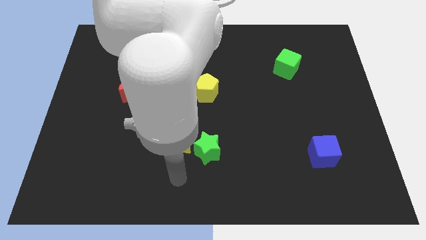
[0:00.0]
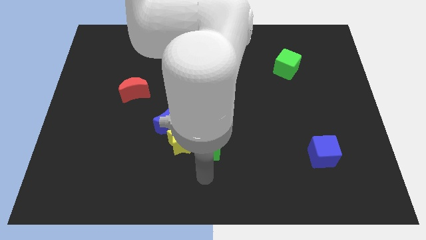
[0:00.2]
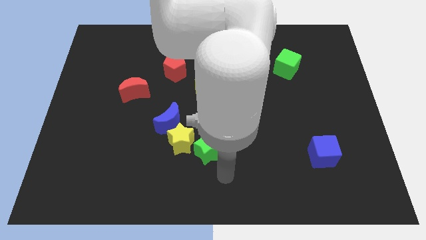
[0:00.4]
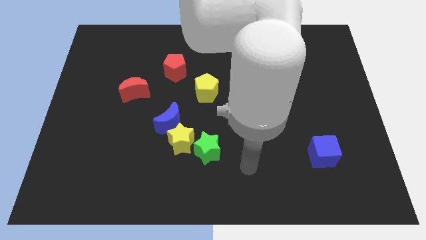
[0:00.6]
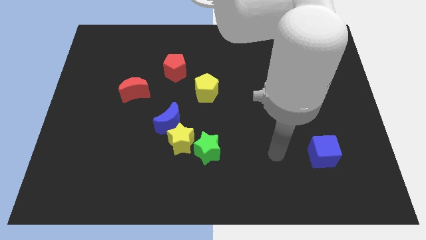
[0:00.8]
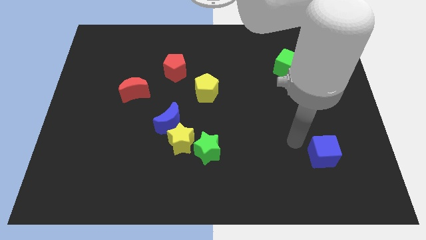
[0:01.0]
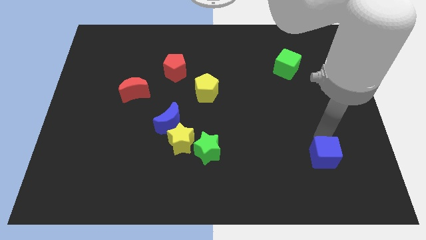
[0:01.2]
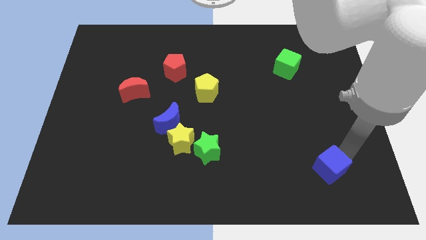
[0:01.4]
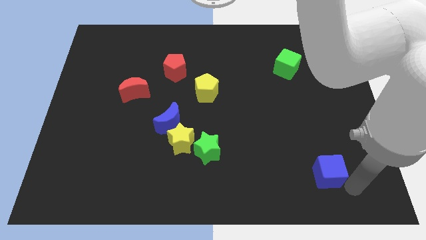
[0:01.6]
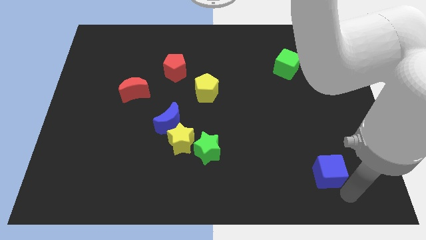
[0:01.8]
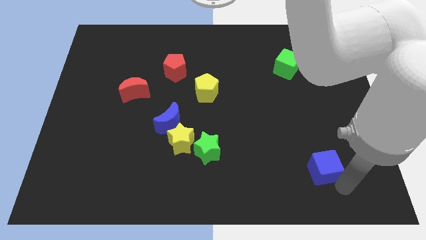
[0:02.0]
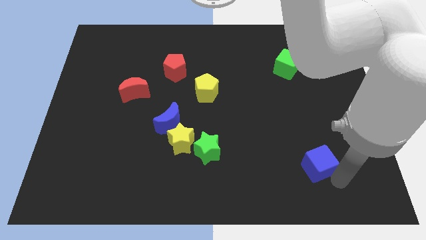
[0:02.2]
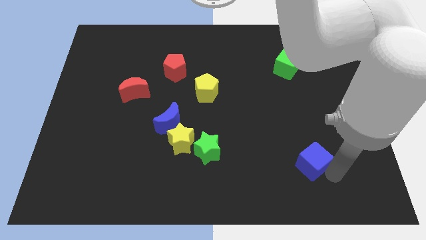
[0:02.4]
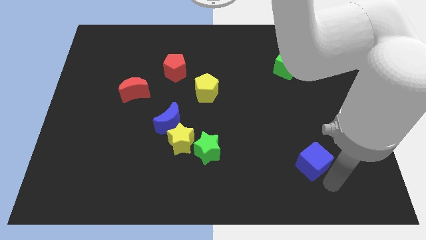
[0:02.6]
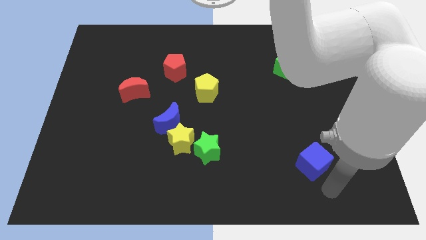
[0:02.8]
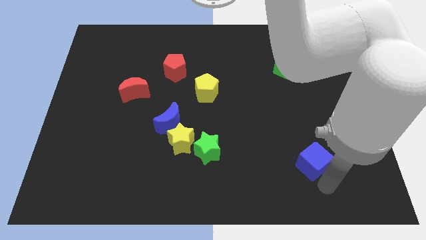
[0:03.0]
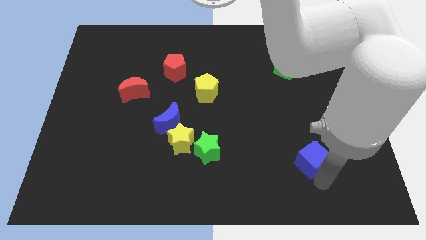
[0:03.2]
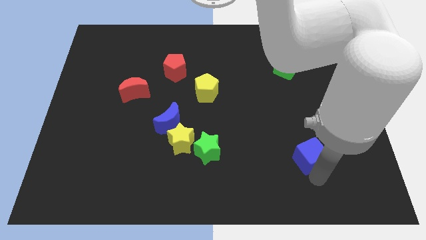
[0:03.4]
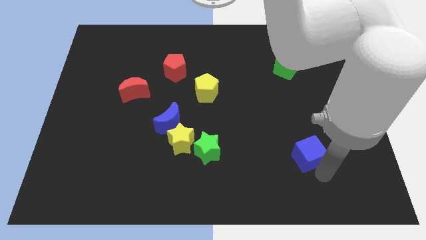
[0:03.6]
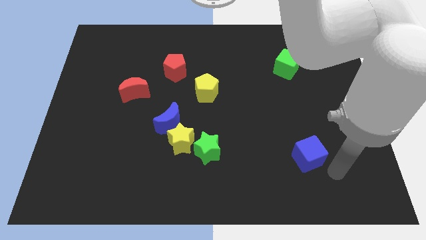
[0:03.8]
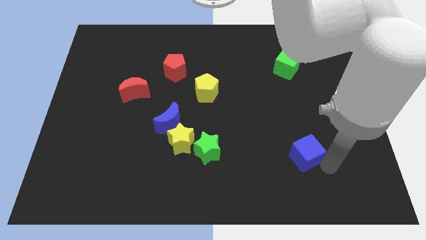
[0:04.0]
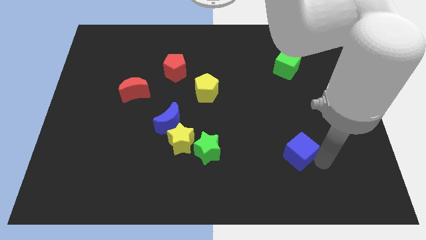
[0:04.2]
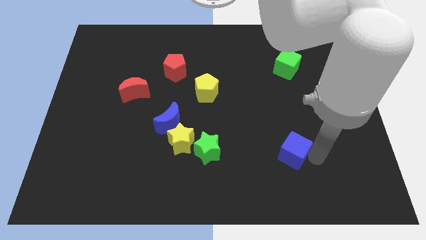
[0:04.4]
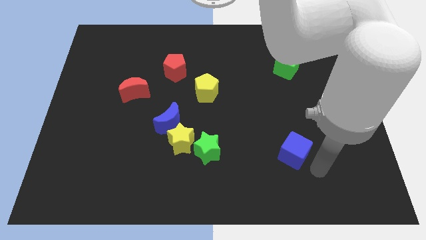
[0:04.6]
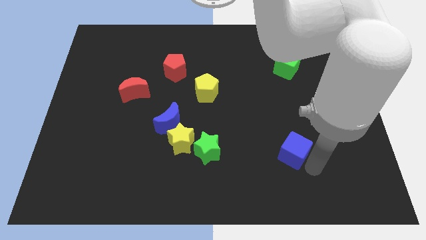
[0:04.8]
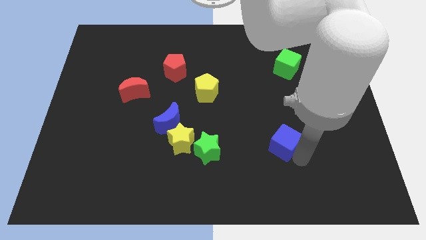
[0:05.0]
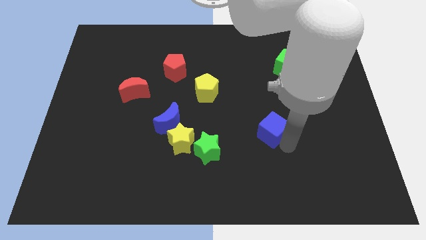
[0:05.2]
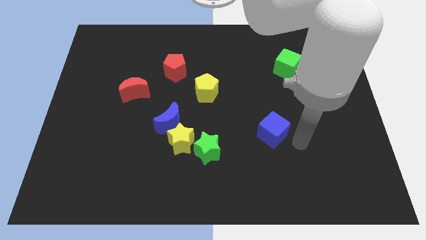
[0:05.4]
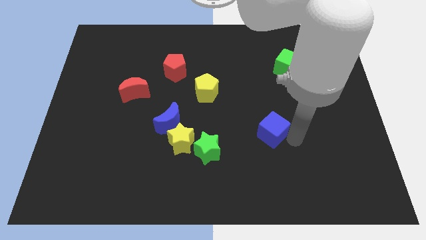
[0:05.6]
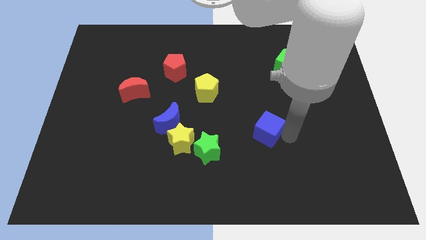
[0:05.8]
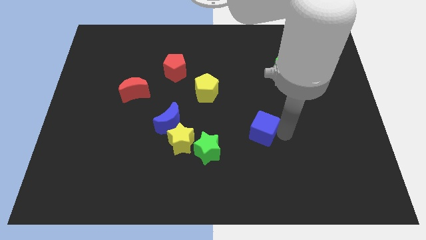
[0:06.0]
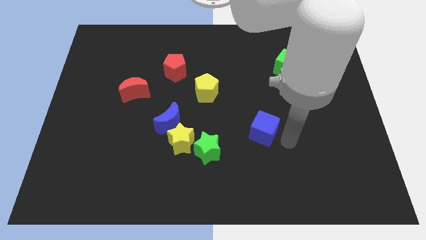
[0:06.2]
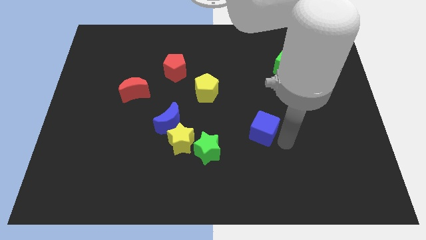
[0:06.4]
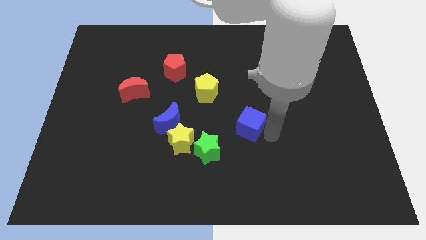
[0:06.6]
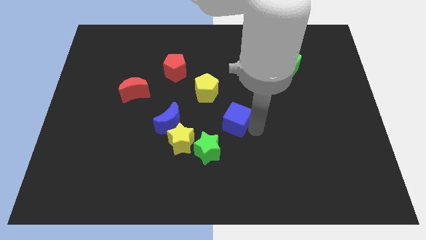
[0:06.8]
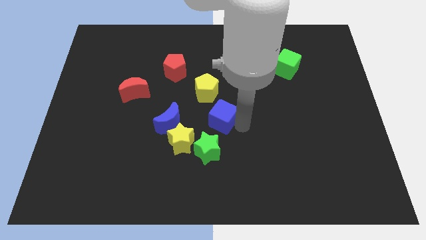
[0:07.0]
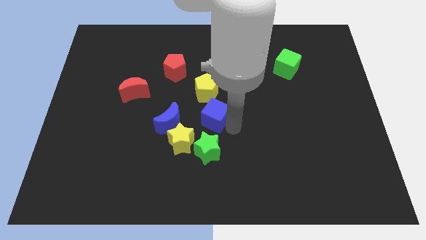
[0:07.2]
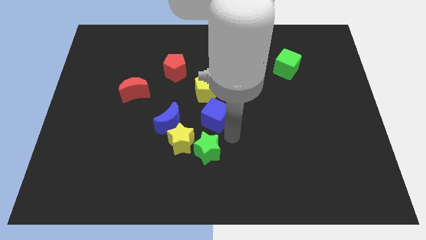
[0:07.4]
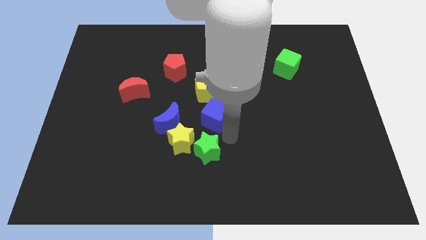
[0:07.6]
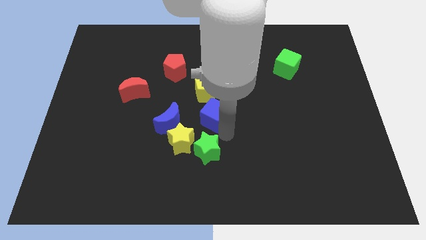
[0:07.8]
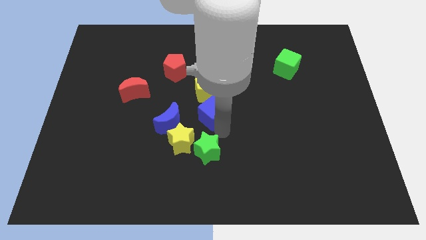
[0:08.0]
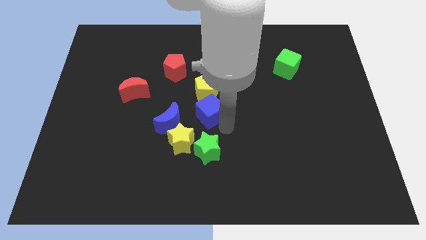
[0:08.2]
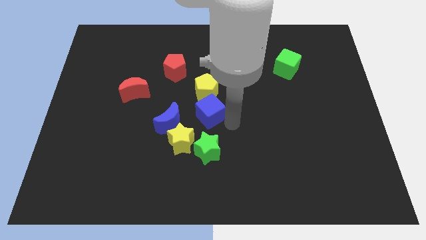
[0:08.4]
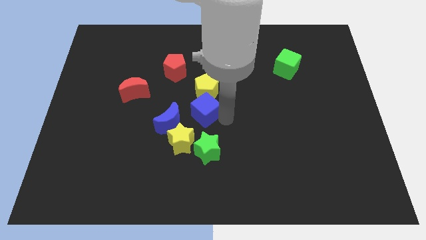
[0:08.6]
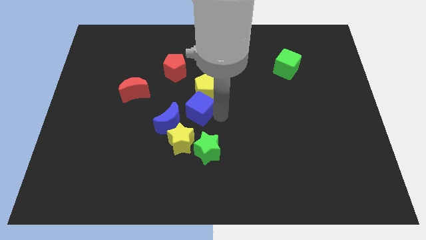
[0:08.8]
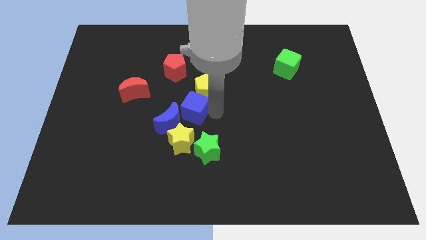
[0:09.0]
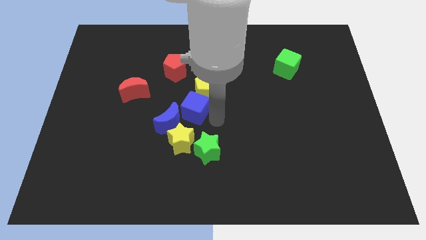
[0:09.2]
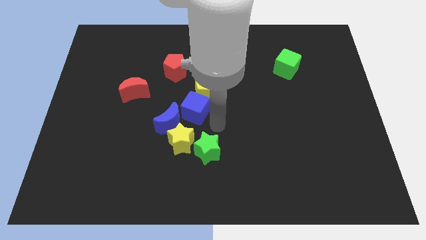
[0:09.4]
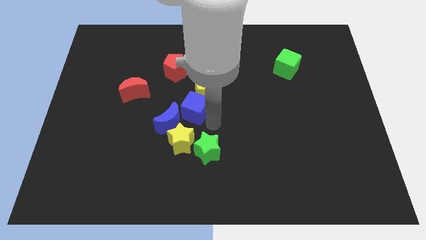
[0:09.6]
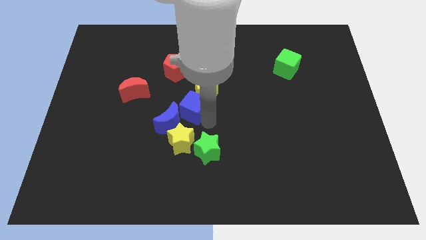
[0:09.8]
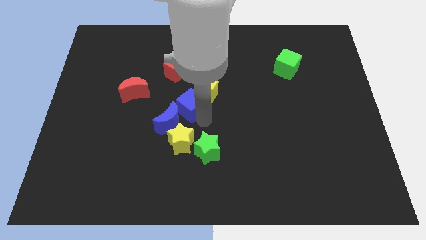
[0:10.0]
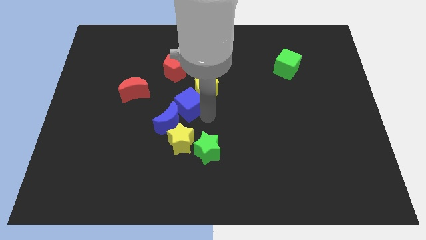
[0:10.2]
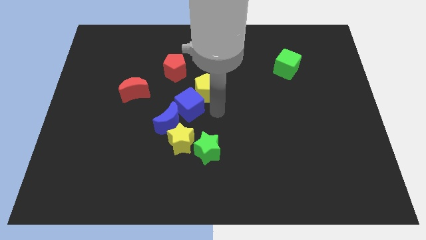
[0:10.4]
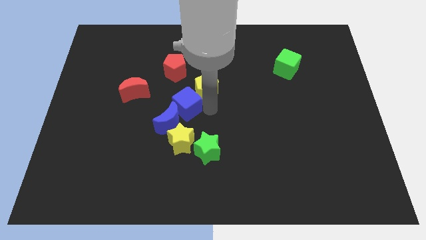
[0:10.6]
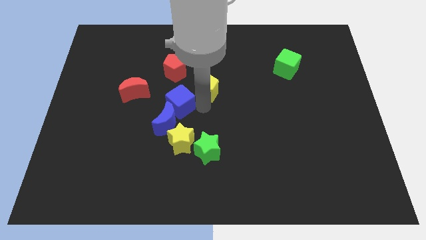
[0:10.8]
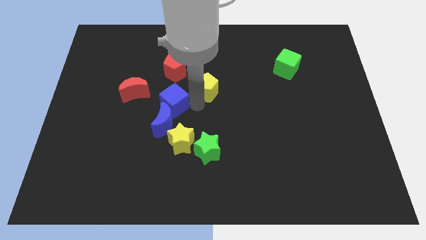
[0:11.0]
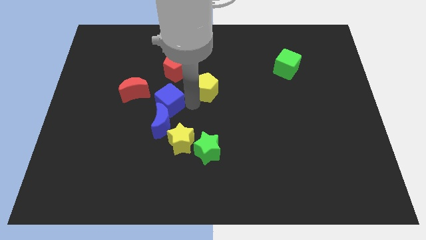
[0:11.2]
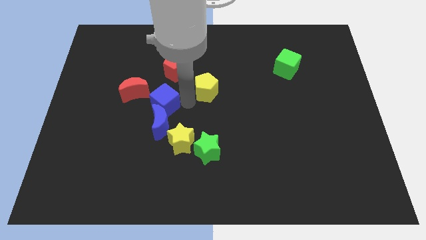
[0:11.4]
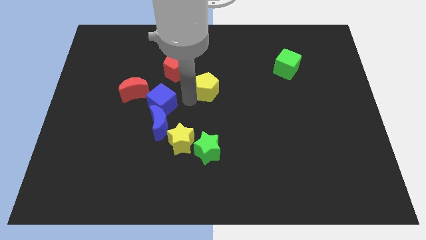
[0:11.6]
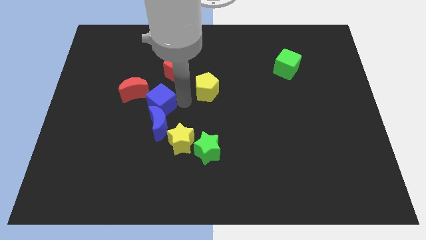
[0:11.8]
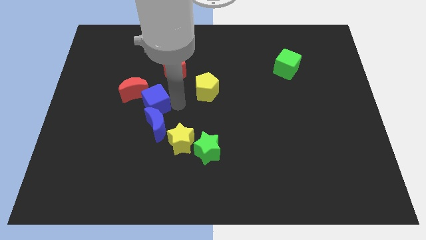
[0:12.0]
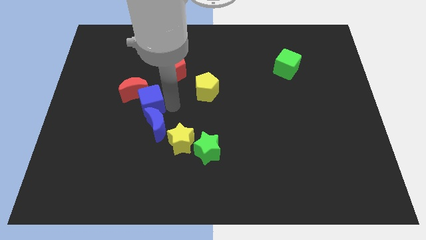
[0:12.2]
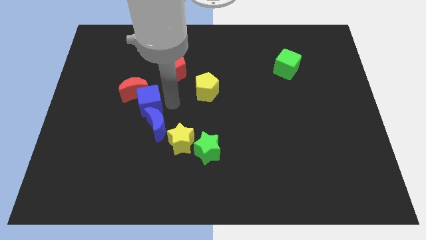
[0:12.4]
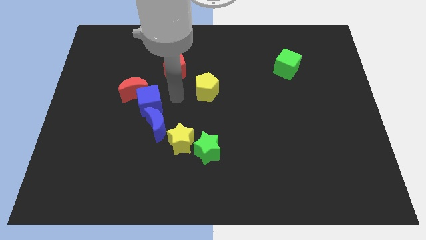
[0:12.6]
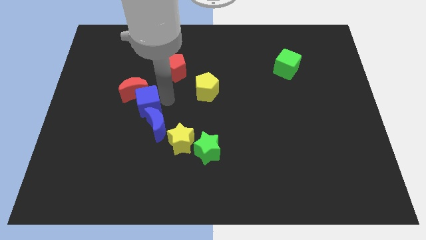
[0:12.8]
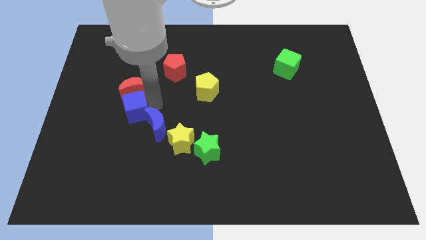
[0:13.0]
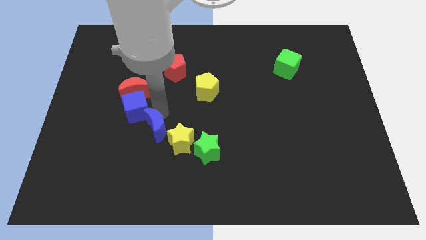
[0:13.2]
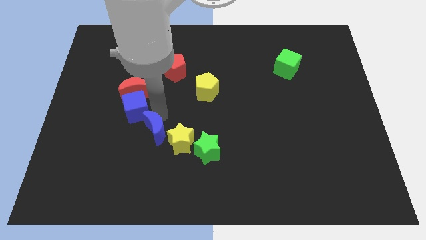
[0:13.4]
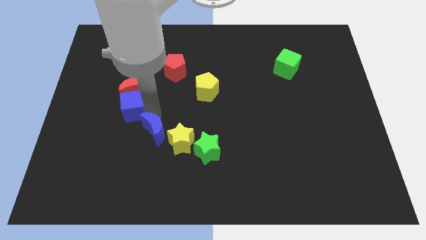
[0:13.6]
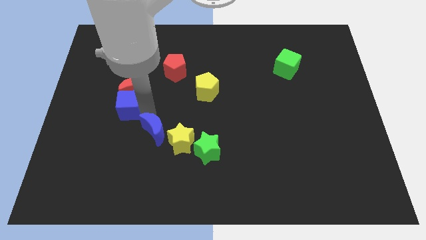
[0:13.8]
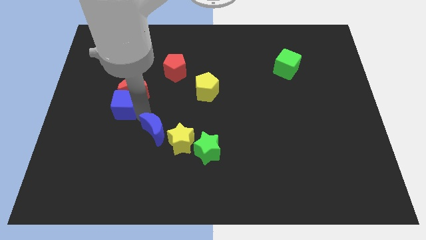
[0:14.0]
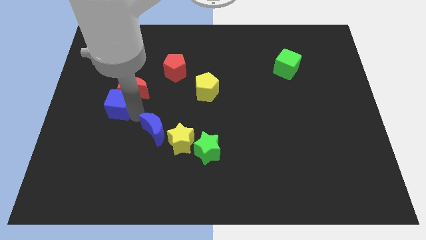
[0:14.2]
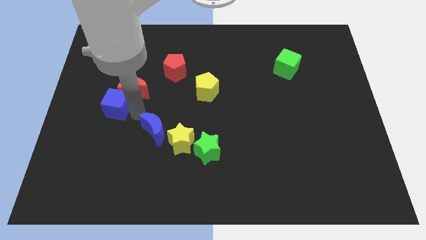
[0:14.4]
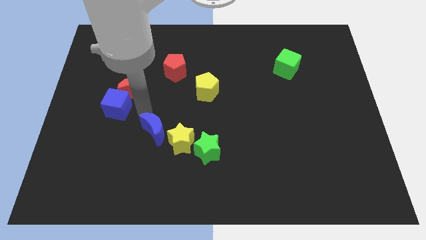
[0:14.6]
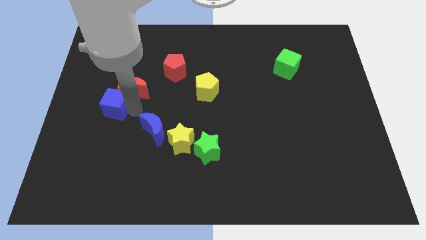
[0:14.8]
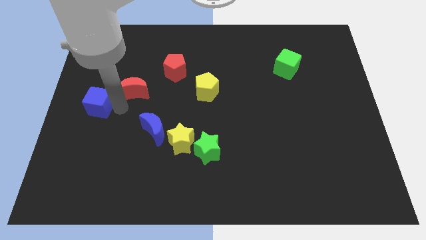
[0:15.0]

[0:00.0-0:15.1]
slide the blue cube to the left side of the board
